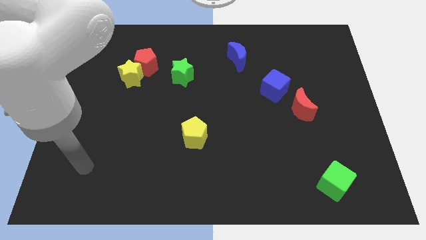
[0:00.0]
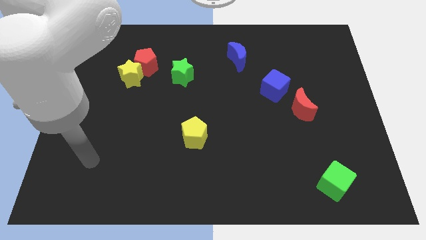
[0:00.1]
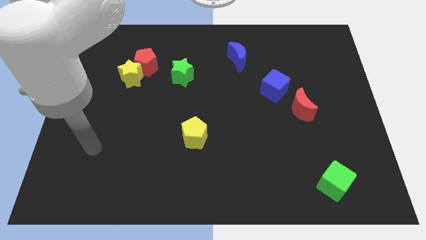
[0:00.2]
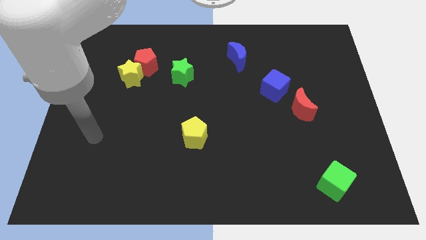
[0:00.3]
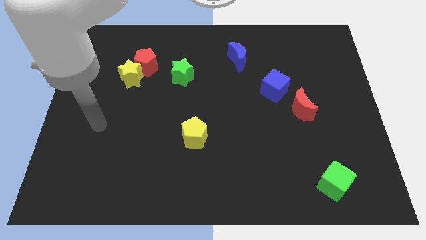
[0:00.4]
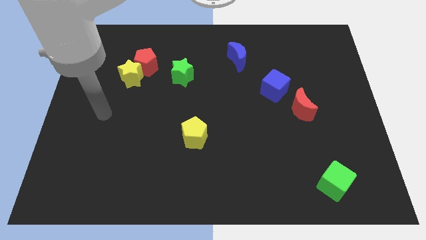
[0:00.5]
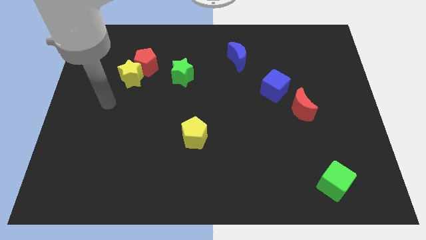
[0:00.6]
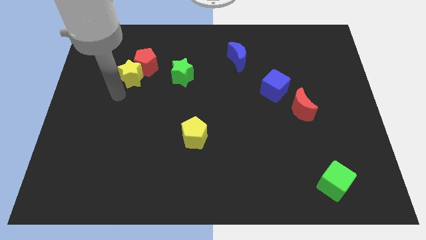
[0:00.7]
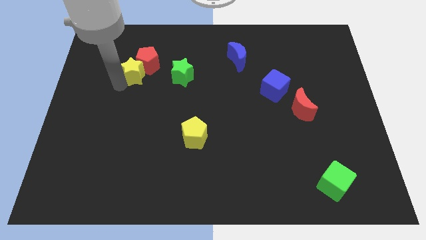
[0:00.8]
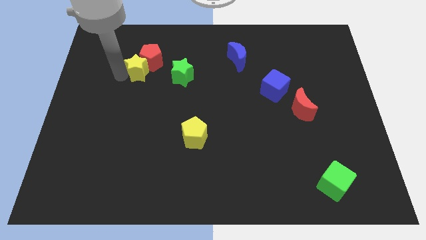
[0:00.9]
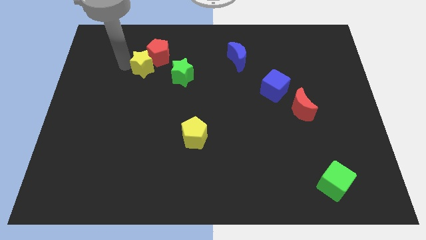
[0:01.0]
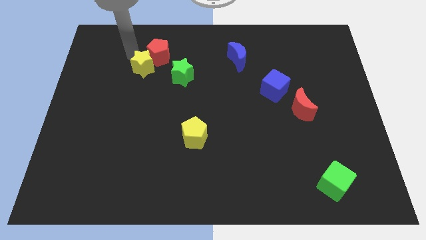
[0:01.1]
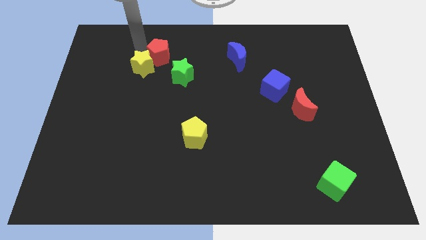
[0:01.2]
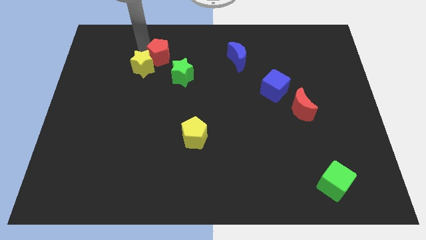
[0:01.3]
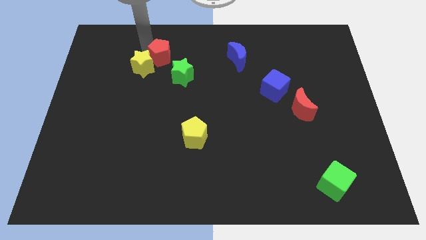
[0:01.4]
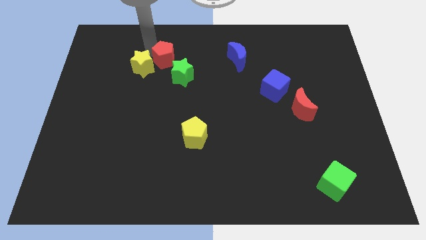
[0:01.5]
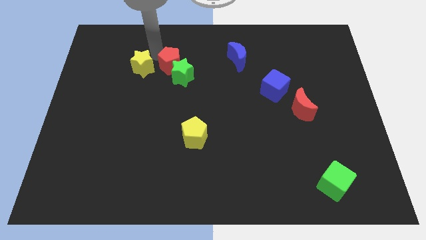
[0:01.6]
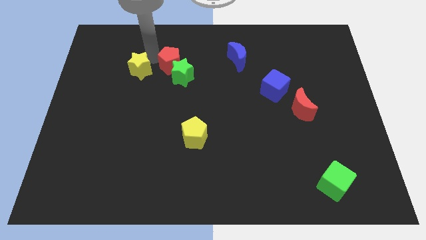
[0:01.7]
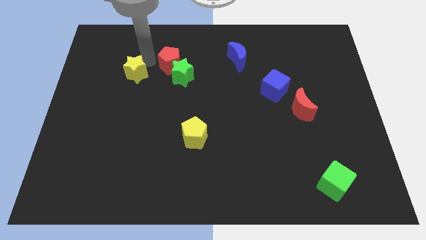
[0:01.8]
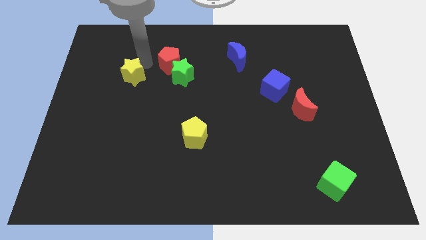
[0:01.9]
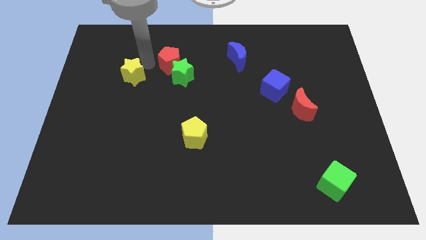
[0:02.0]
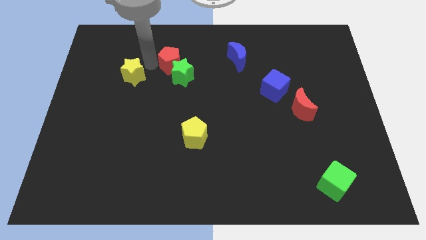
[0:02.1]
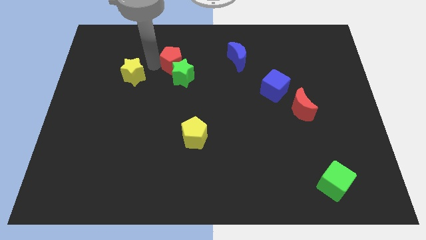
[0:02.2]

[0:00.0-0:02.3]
slightly move the red pentagon right

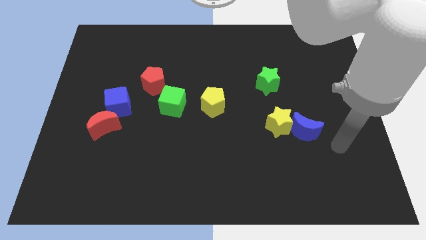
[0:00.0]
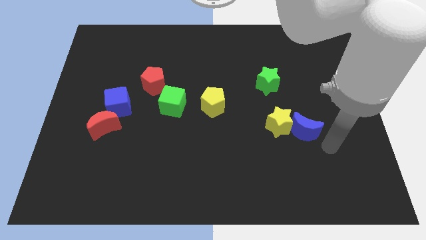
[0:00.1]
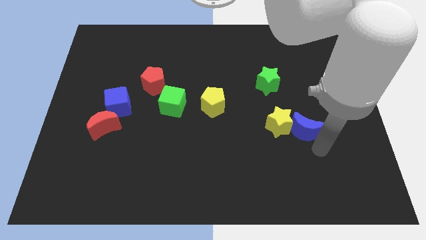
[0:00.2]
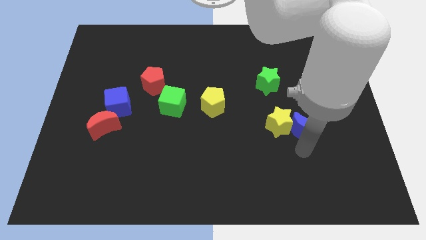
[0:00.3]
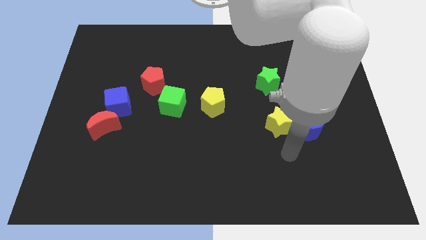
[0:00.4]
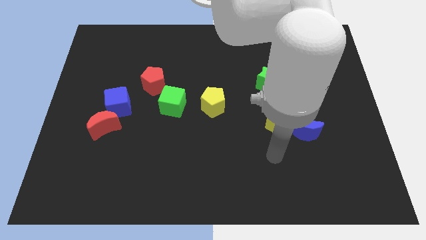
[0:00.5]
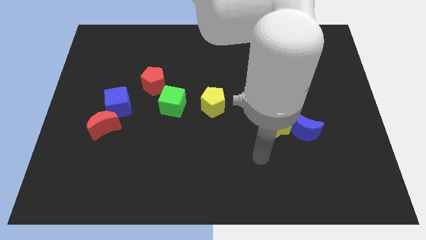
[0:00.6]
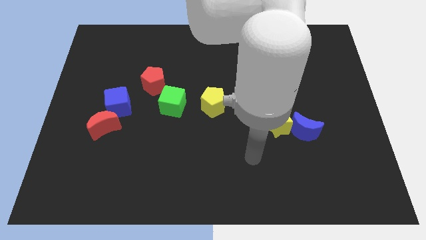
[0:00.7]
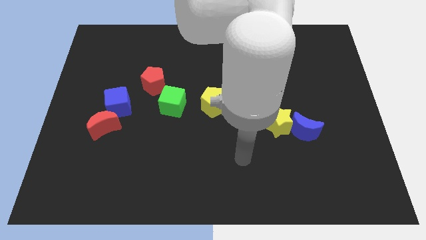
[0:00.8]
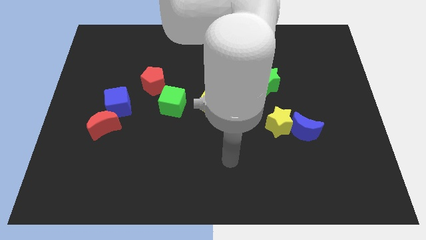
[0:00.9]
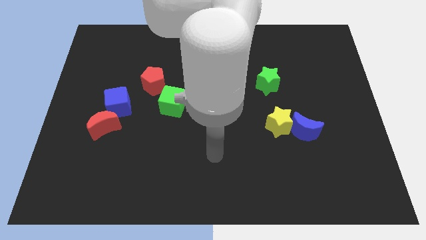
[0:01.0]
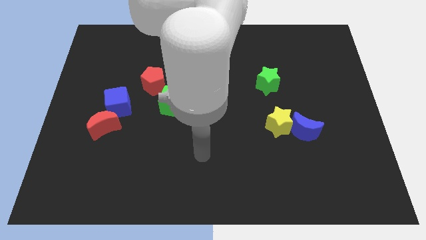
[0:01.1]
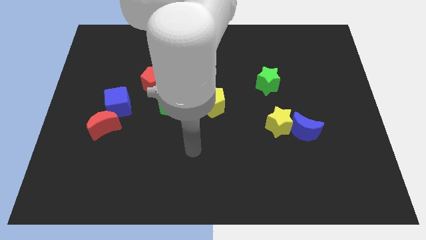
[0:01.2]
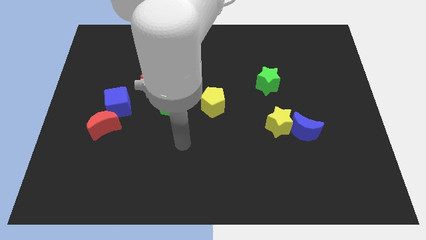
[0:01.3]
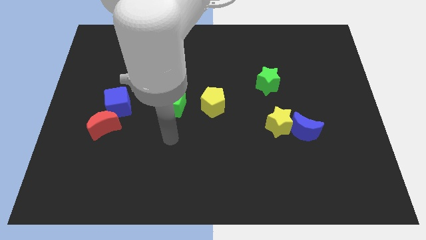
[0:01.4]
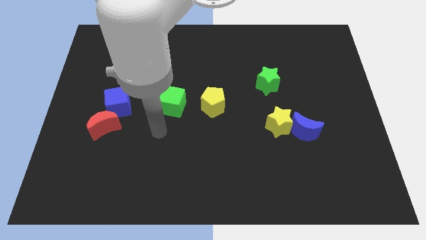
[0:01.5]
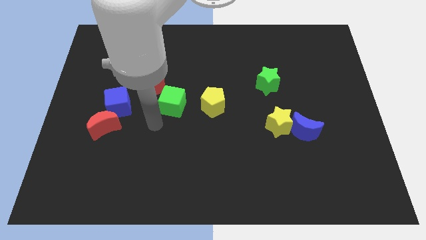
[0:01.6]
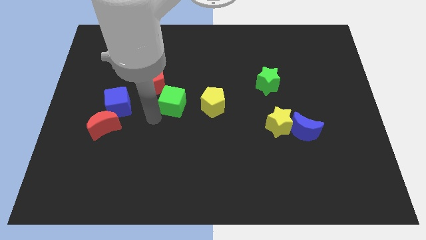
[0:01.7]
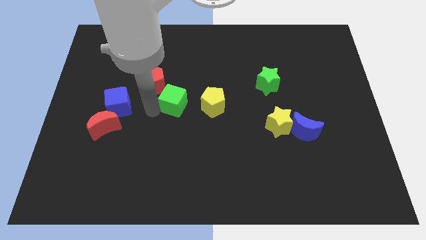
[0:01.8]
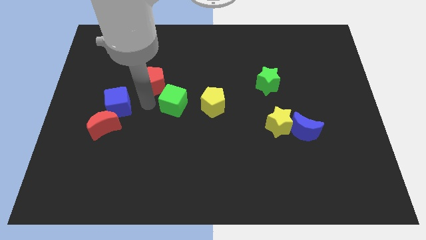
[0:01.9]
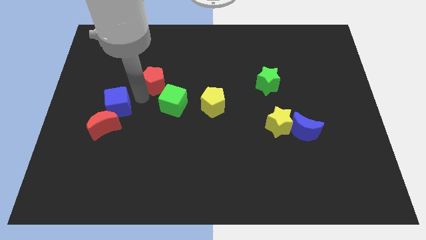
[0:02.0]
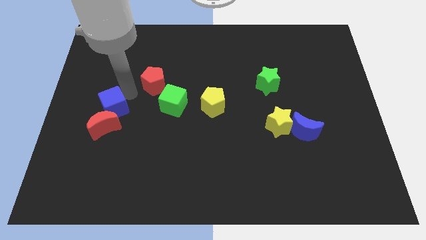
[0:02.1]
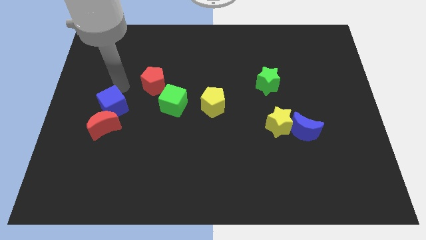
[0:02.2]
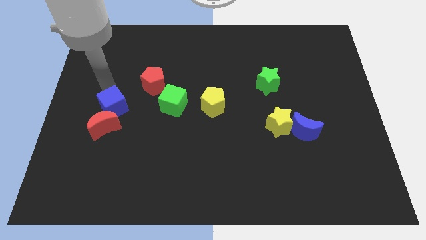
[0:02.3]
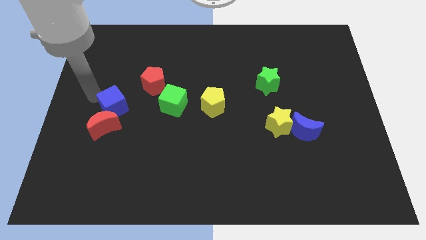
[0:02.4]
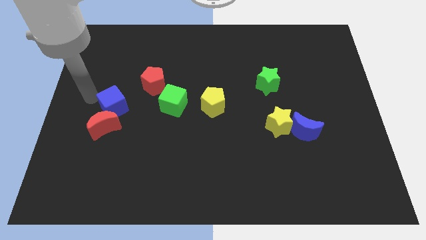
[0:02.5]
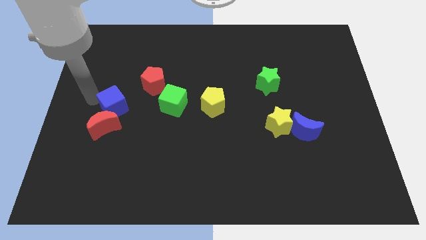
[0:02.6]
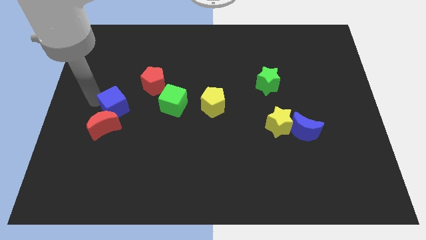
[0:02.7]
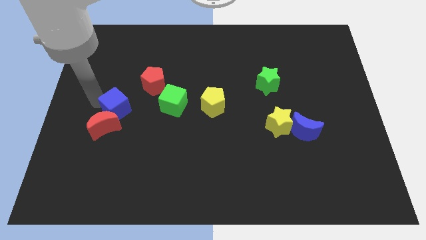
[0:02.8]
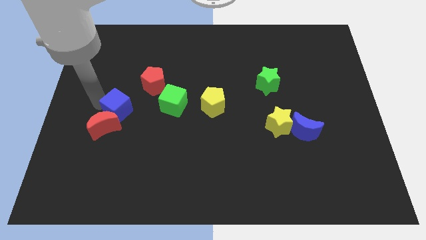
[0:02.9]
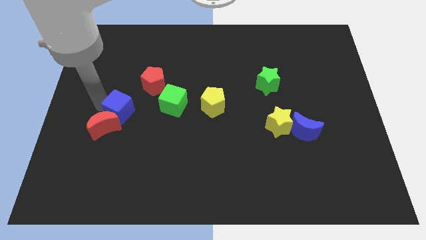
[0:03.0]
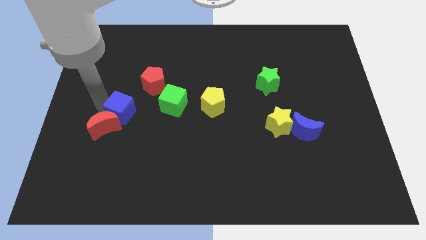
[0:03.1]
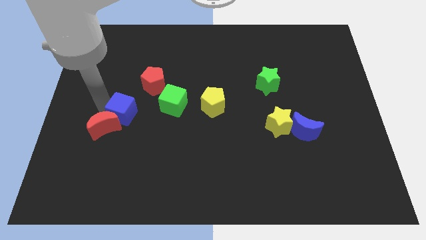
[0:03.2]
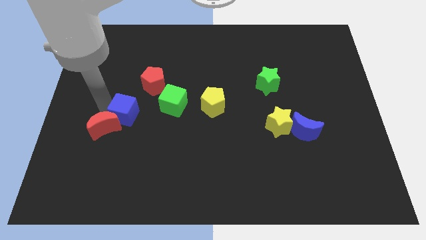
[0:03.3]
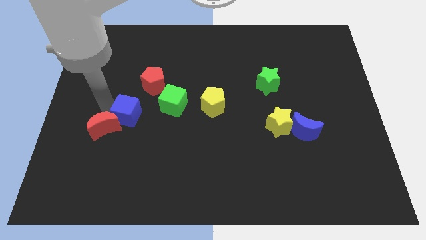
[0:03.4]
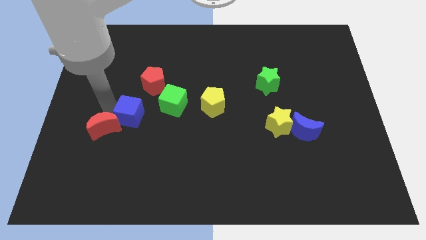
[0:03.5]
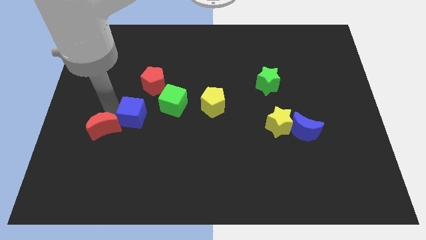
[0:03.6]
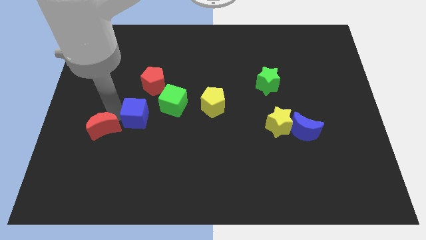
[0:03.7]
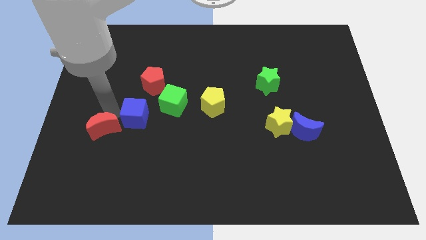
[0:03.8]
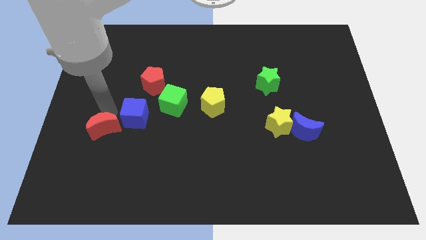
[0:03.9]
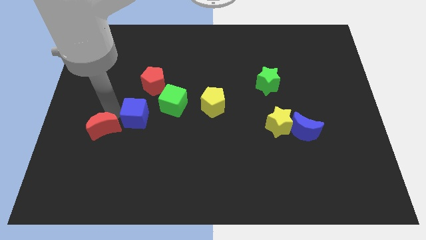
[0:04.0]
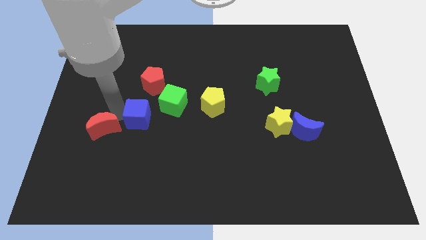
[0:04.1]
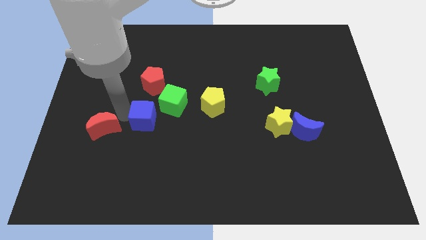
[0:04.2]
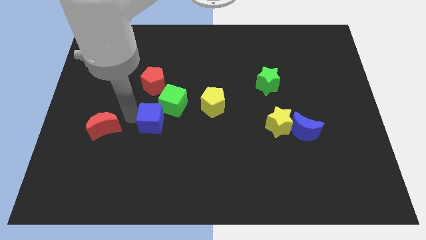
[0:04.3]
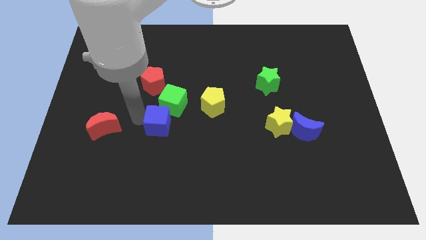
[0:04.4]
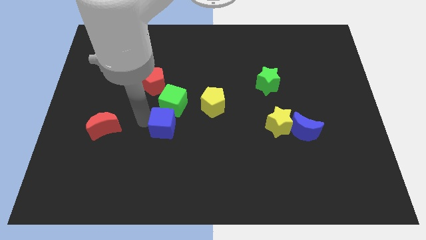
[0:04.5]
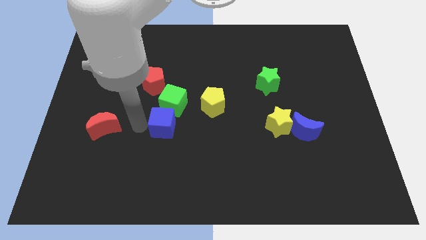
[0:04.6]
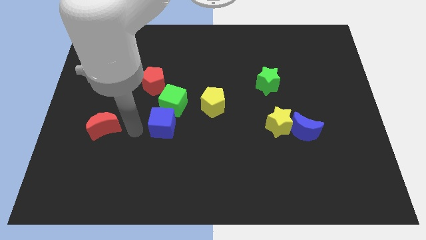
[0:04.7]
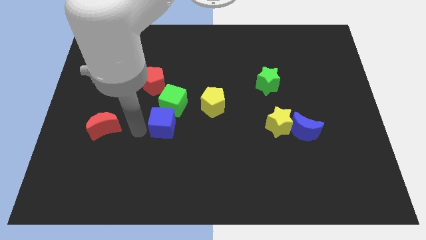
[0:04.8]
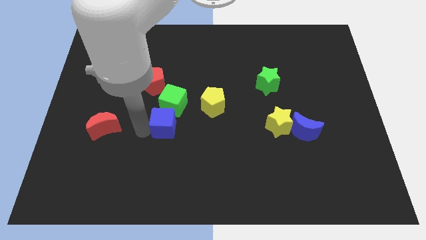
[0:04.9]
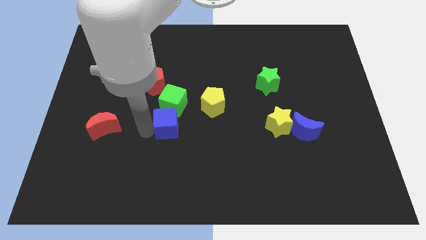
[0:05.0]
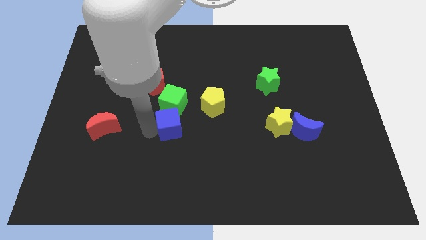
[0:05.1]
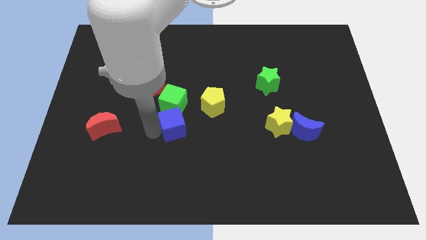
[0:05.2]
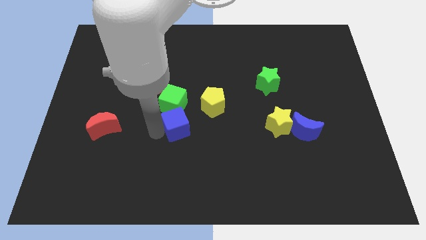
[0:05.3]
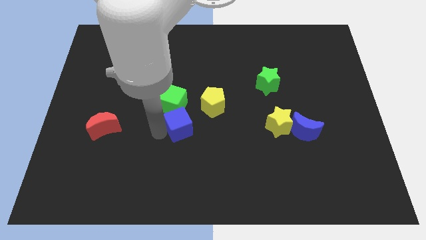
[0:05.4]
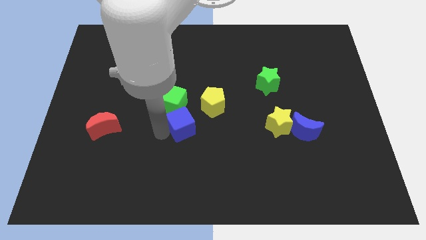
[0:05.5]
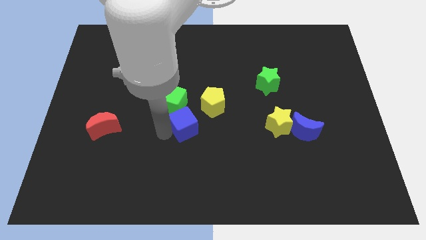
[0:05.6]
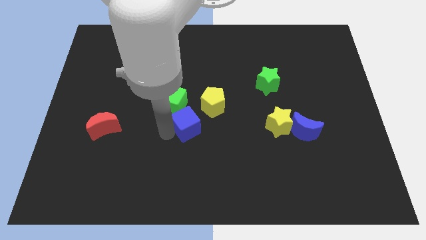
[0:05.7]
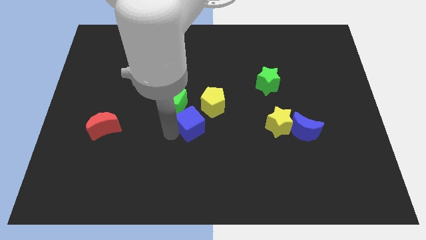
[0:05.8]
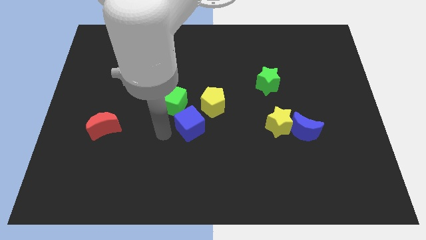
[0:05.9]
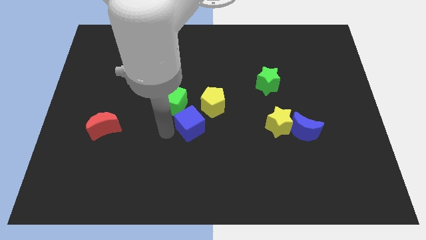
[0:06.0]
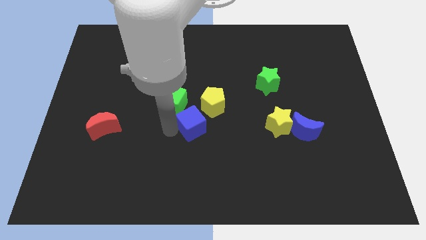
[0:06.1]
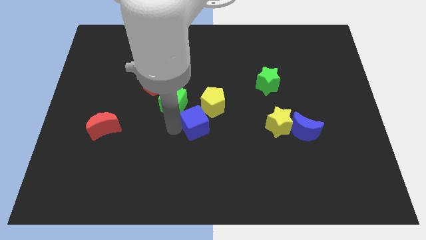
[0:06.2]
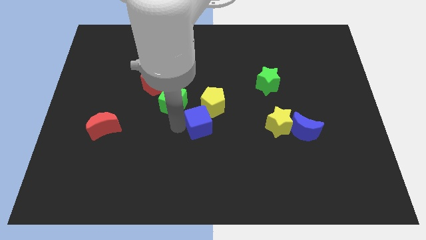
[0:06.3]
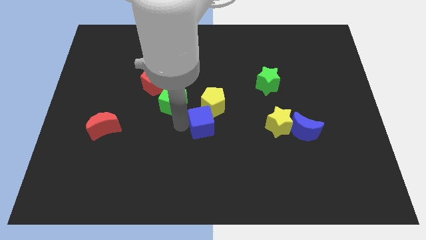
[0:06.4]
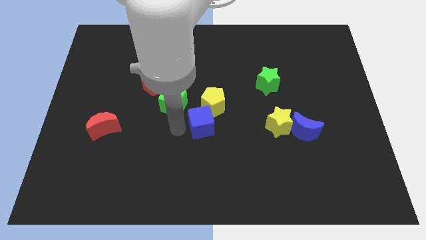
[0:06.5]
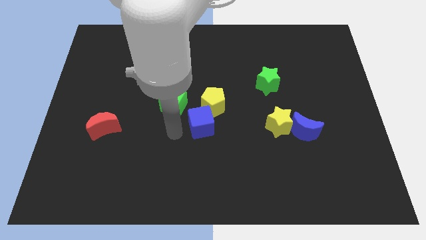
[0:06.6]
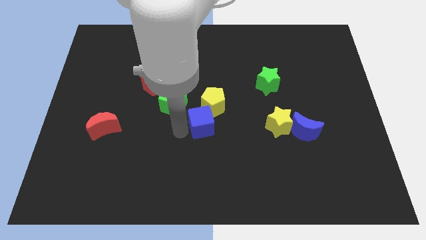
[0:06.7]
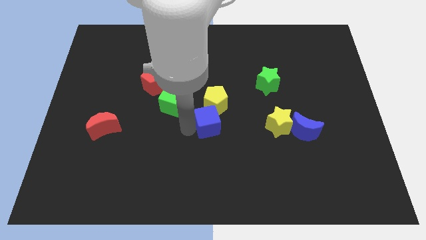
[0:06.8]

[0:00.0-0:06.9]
move the blue cube right
